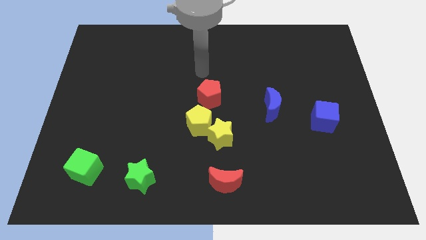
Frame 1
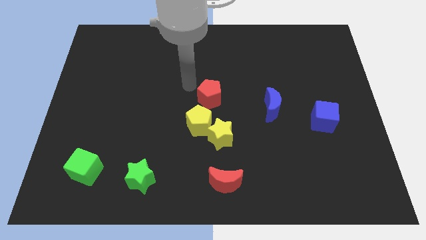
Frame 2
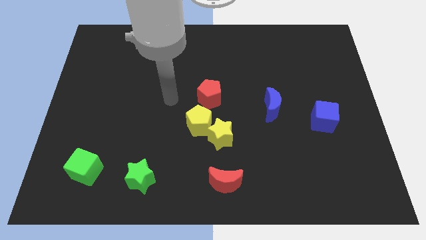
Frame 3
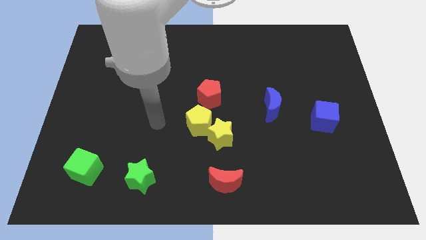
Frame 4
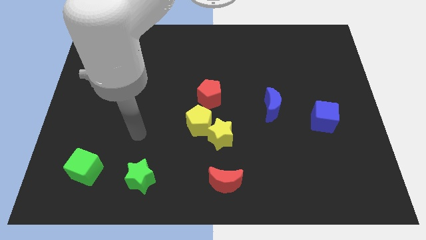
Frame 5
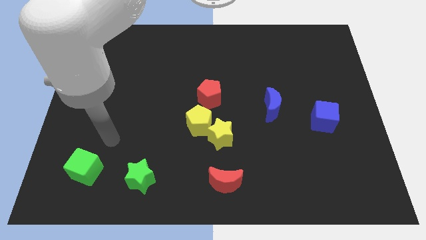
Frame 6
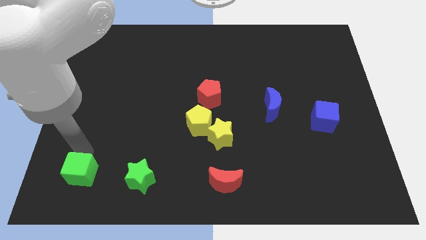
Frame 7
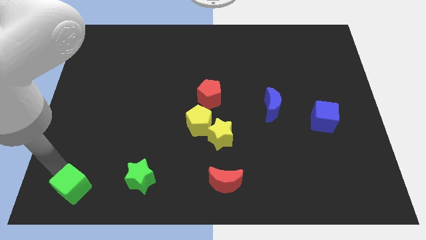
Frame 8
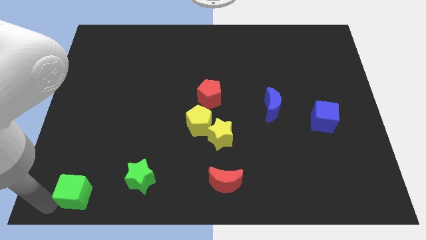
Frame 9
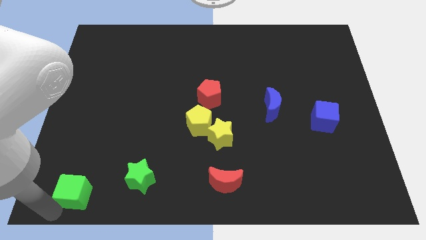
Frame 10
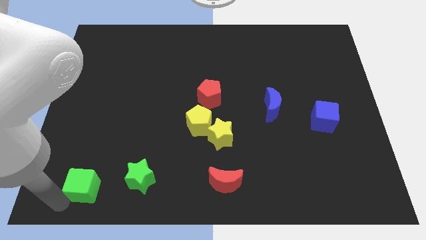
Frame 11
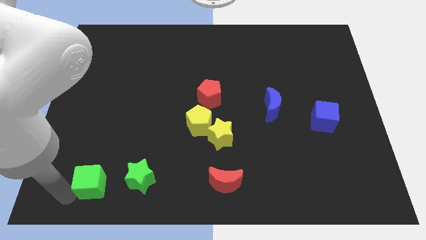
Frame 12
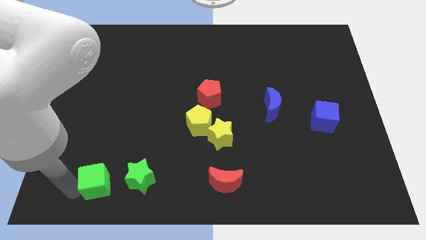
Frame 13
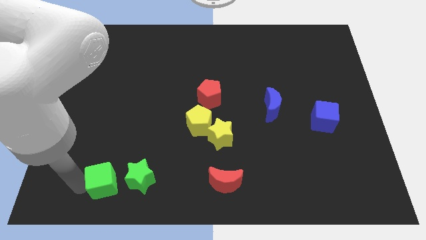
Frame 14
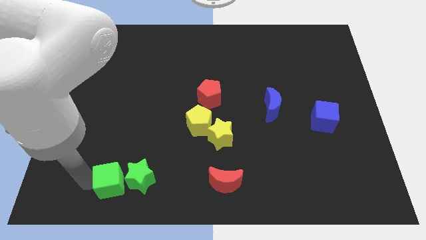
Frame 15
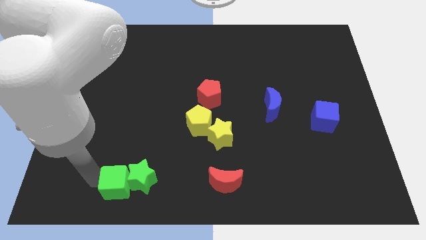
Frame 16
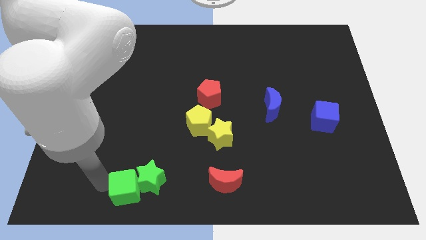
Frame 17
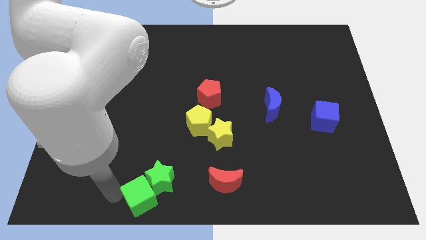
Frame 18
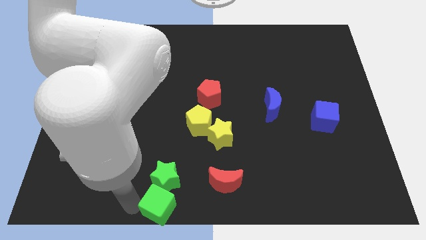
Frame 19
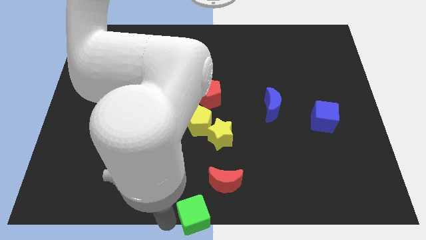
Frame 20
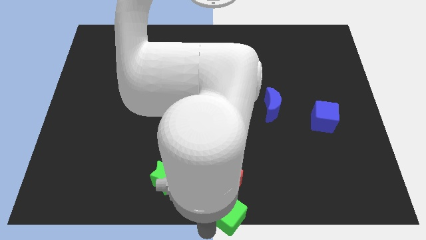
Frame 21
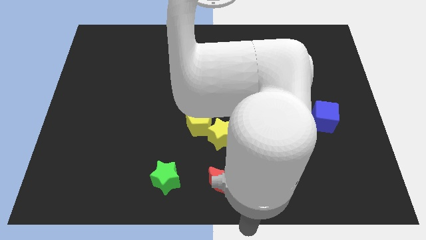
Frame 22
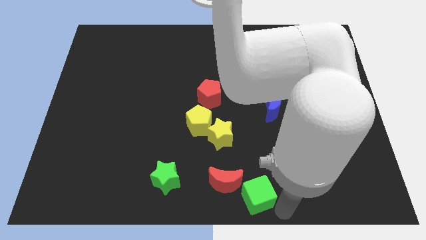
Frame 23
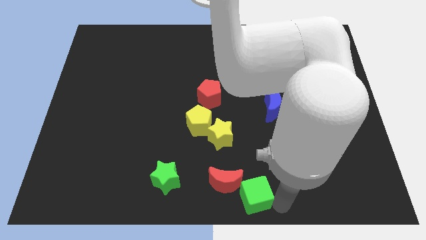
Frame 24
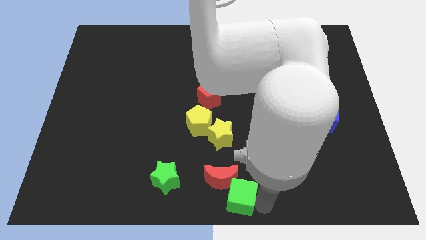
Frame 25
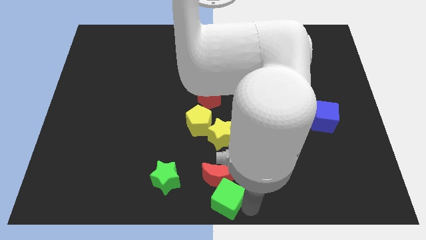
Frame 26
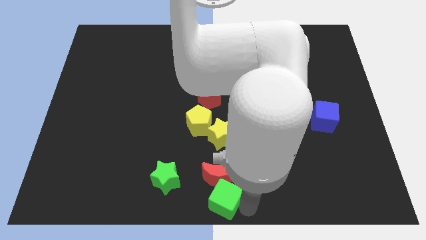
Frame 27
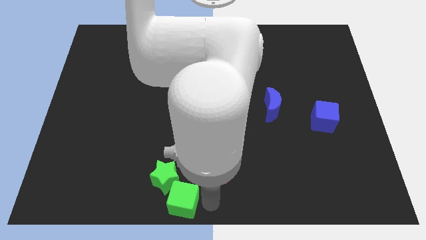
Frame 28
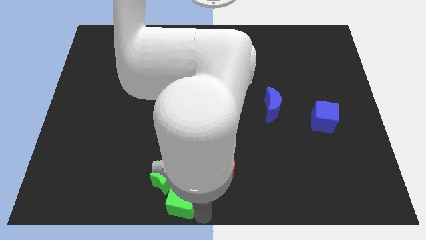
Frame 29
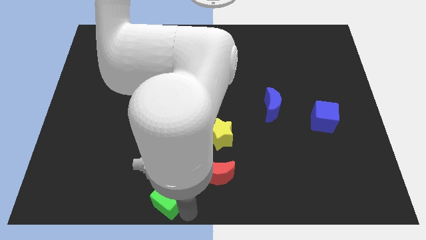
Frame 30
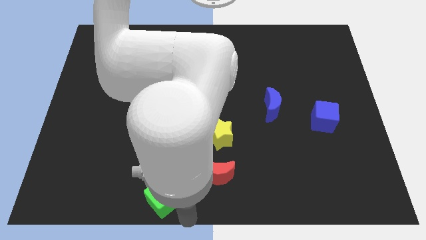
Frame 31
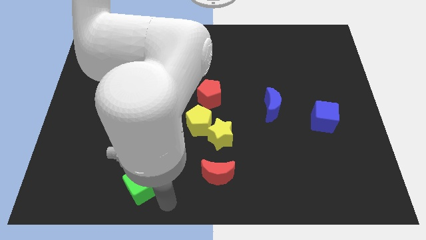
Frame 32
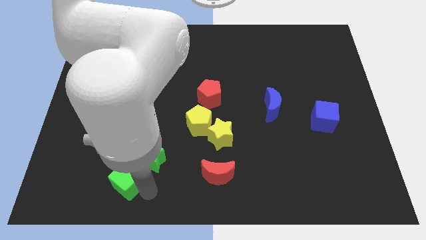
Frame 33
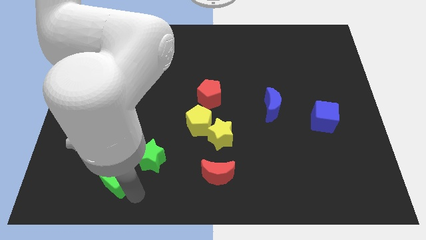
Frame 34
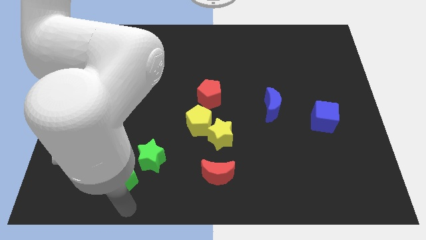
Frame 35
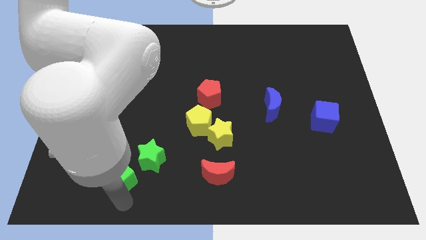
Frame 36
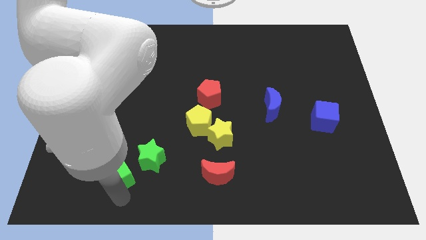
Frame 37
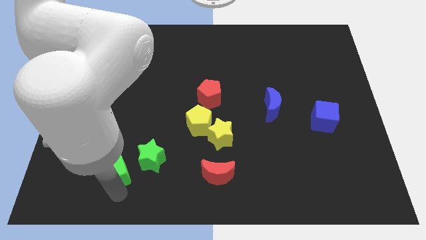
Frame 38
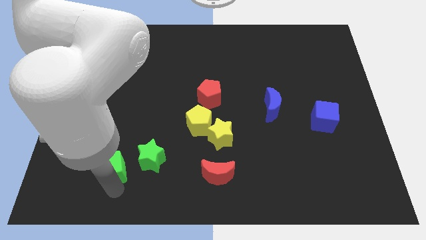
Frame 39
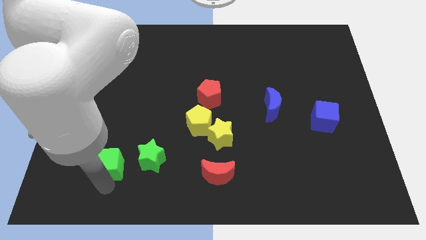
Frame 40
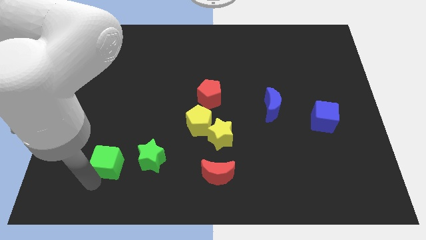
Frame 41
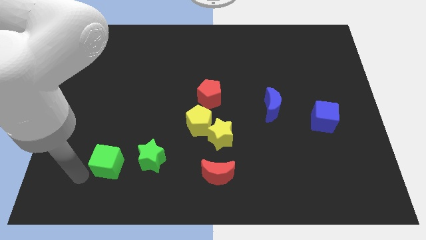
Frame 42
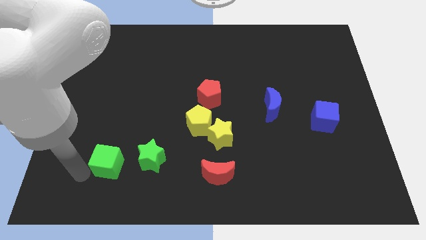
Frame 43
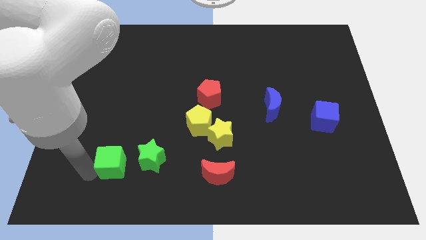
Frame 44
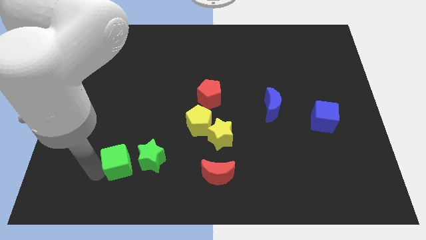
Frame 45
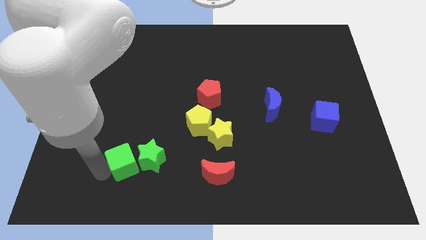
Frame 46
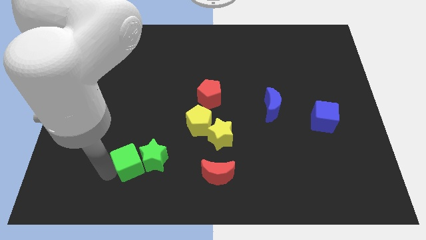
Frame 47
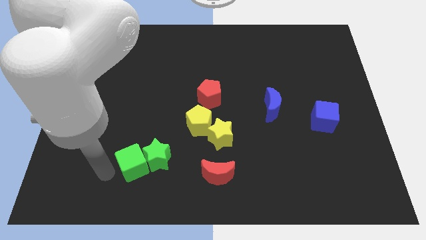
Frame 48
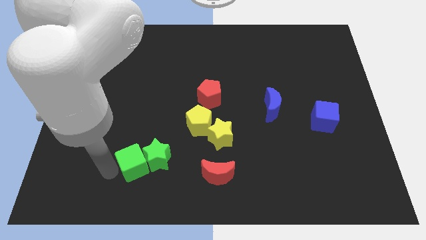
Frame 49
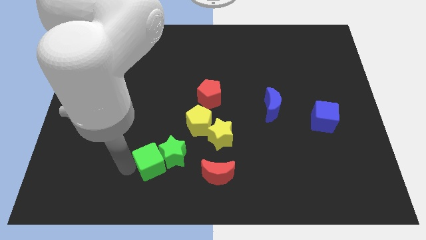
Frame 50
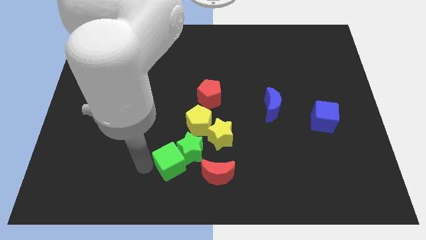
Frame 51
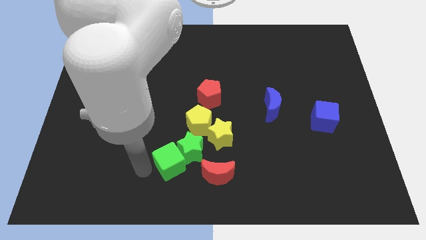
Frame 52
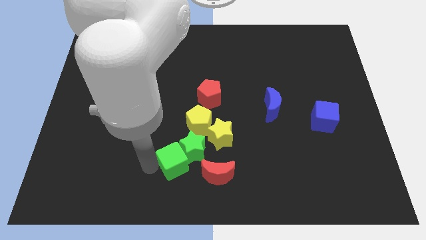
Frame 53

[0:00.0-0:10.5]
put the green cube diagonally down and to the left of the yellow star

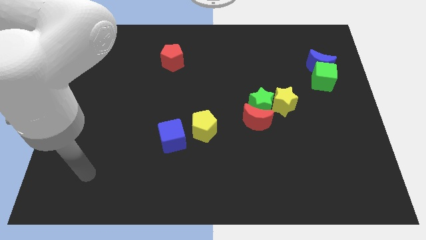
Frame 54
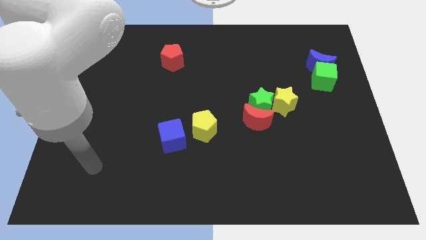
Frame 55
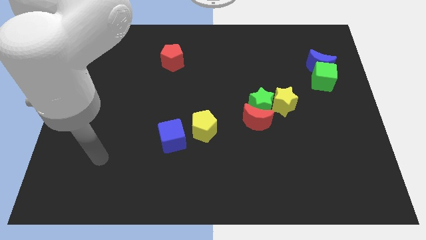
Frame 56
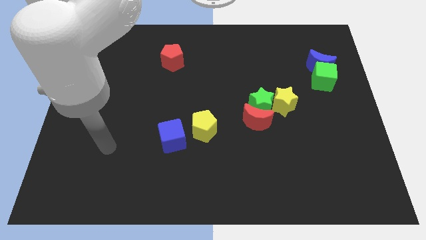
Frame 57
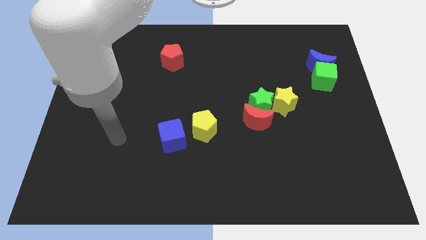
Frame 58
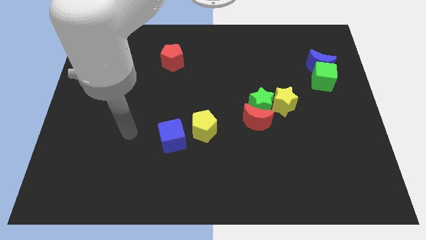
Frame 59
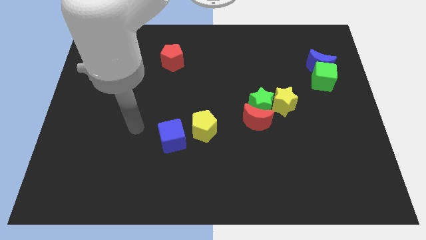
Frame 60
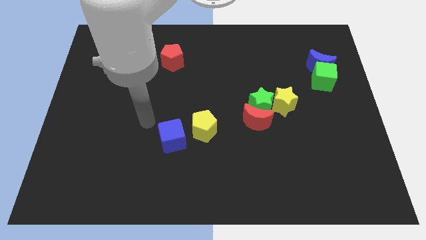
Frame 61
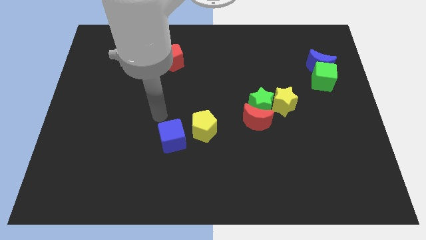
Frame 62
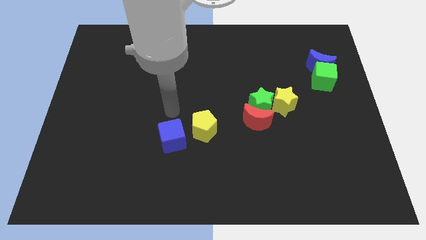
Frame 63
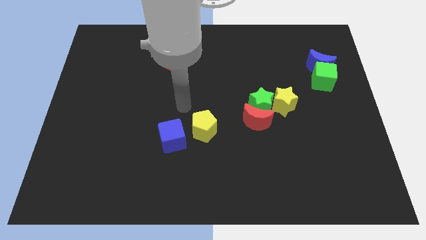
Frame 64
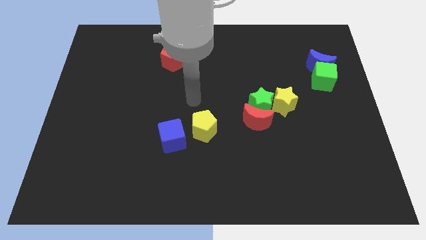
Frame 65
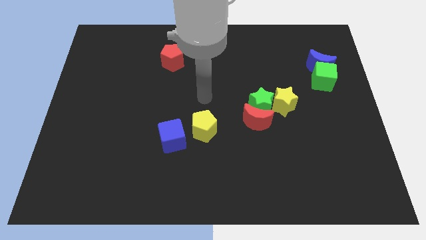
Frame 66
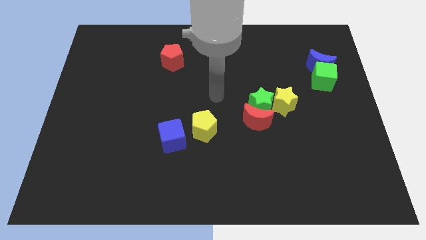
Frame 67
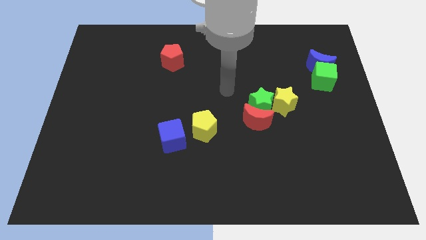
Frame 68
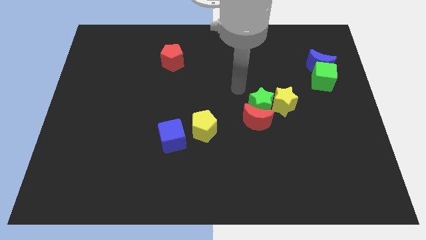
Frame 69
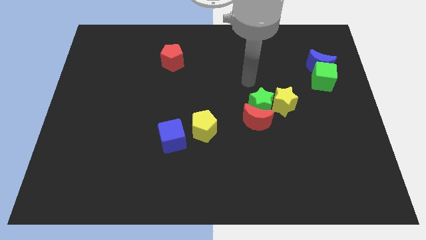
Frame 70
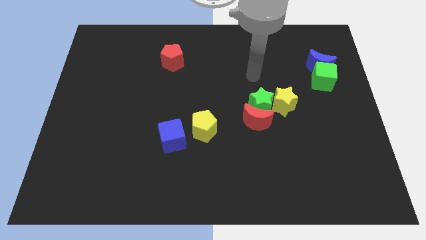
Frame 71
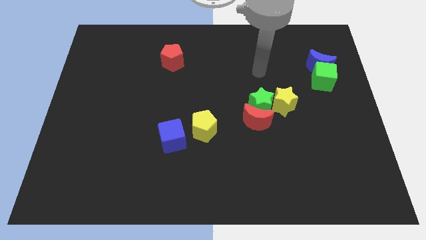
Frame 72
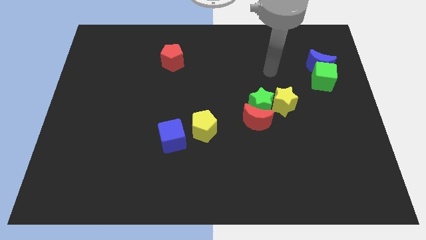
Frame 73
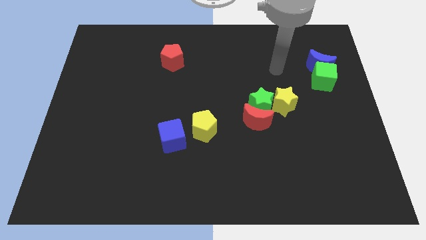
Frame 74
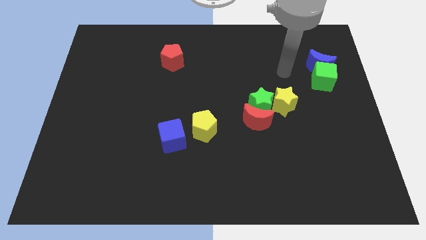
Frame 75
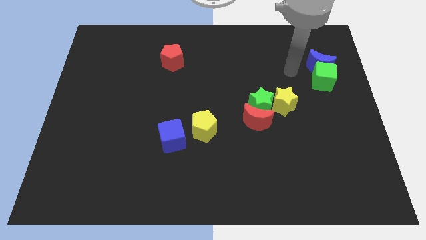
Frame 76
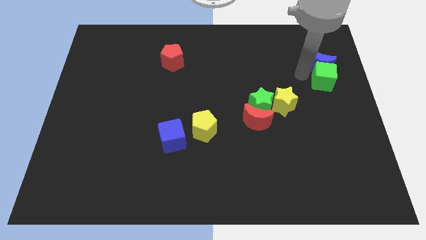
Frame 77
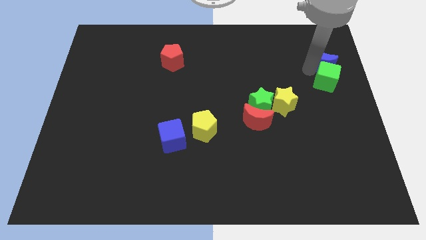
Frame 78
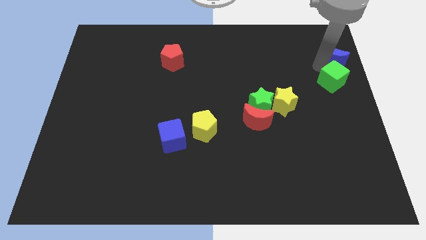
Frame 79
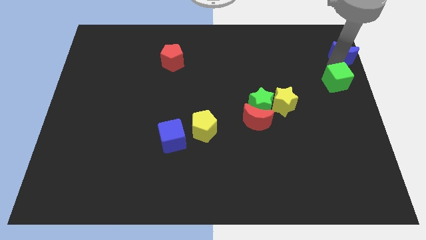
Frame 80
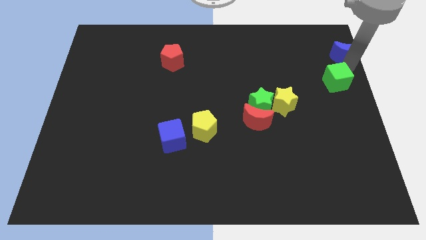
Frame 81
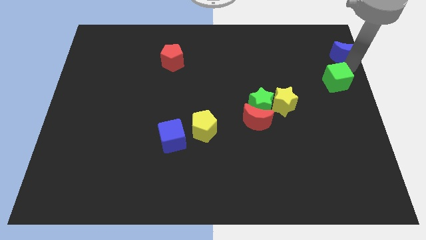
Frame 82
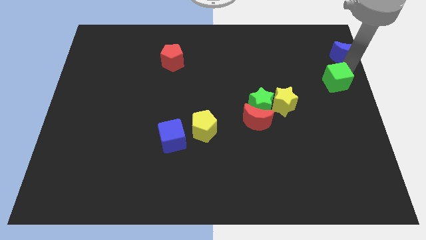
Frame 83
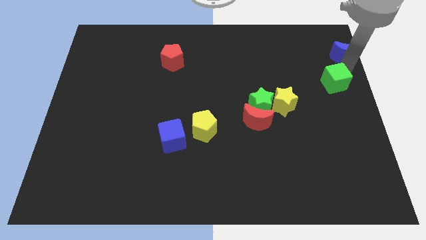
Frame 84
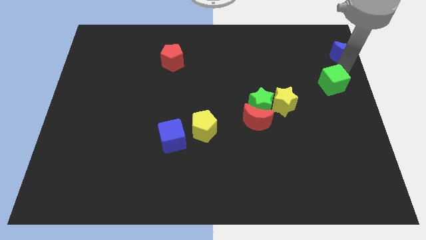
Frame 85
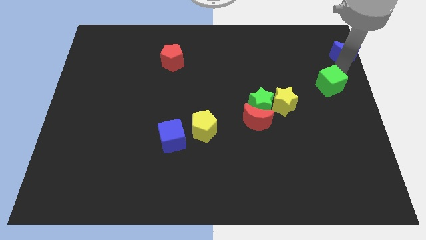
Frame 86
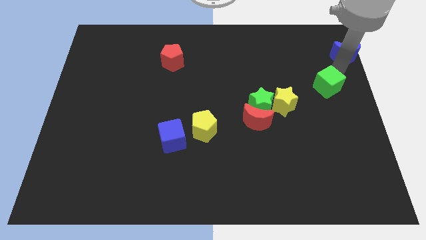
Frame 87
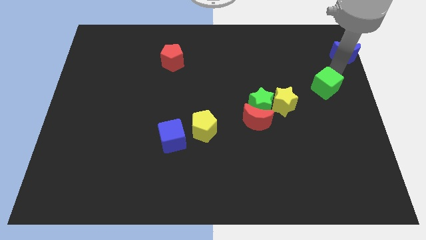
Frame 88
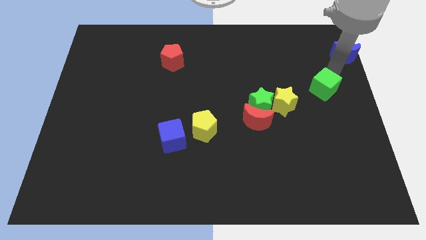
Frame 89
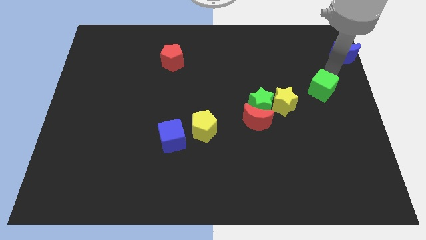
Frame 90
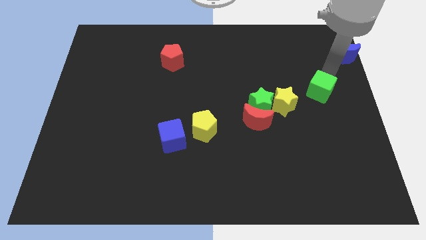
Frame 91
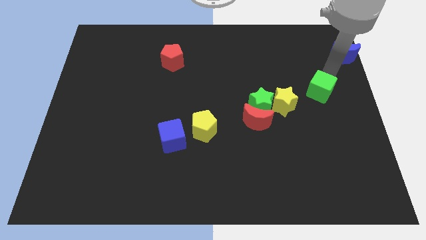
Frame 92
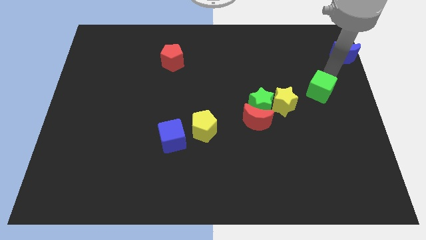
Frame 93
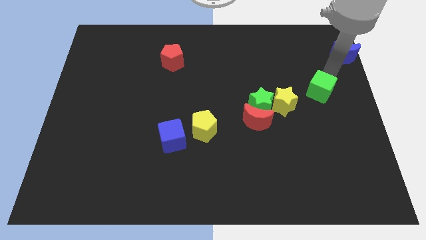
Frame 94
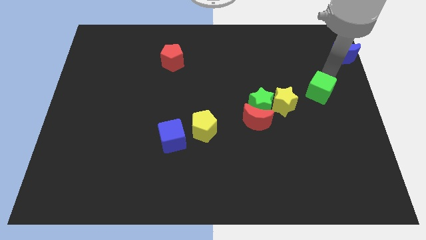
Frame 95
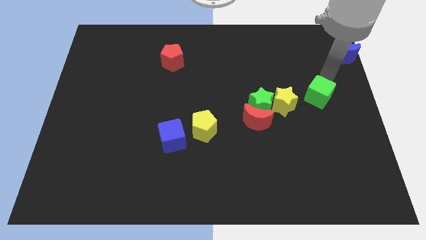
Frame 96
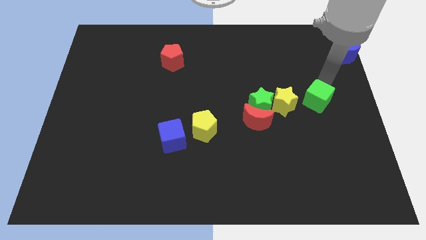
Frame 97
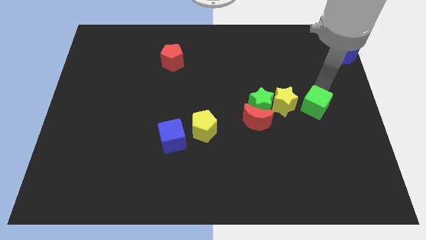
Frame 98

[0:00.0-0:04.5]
put the green cube to the bottom right side of the yellow star
